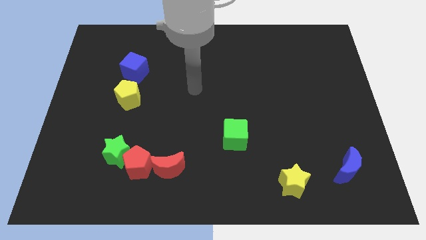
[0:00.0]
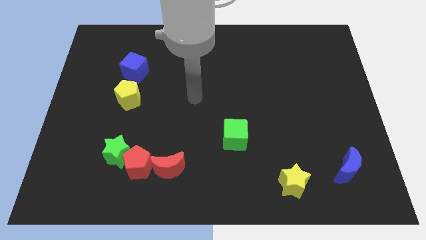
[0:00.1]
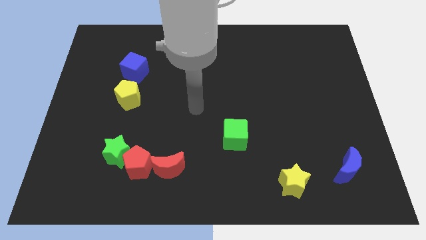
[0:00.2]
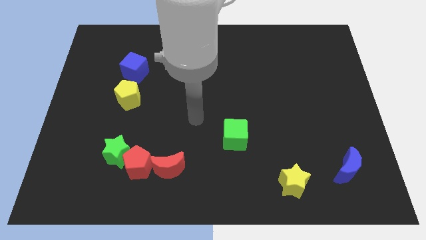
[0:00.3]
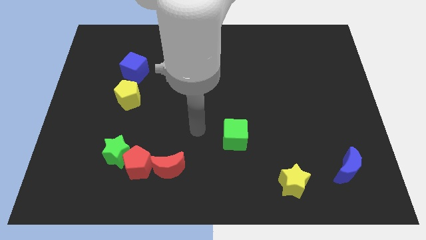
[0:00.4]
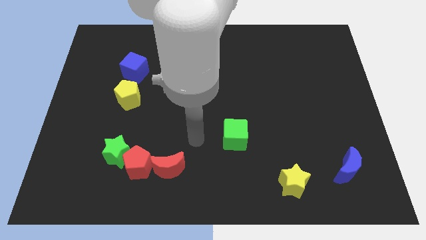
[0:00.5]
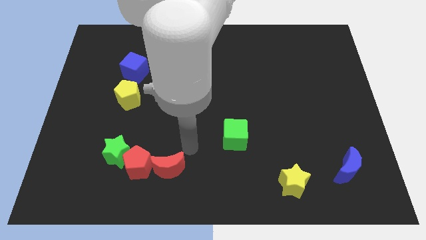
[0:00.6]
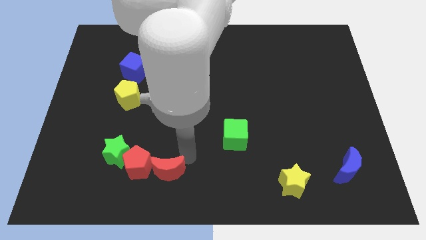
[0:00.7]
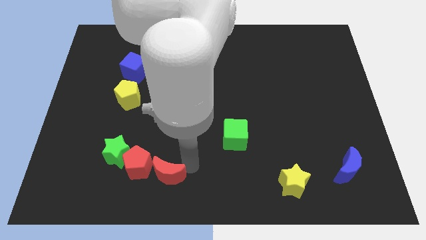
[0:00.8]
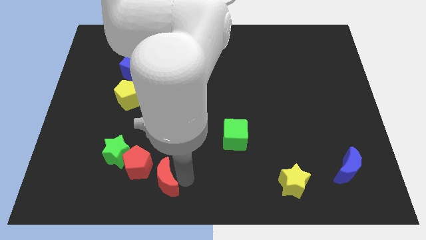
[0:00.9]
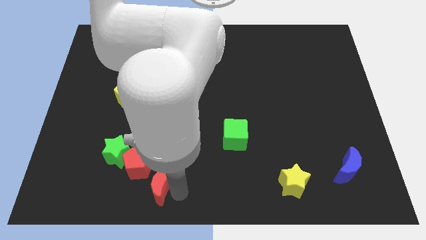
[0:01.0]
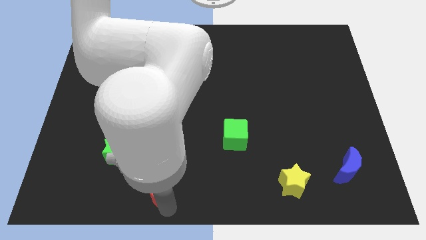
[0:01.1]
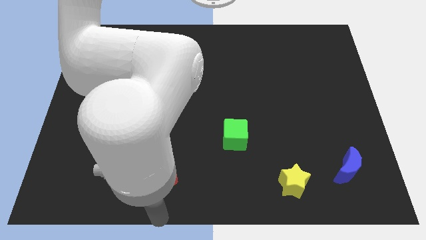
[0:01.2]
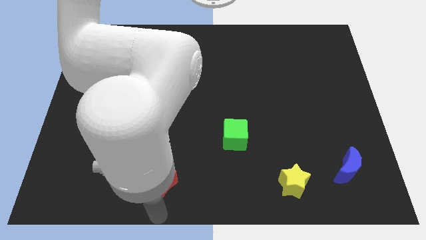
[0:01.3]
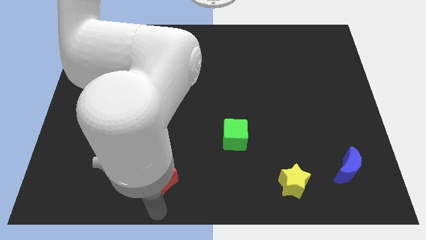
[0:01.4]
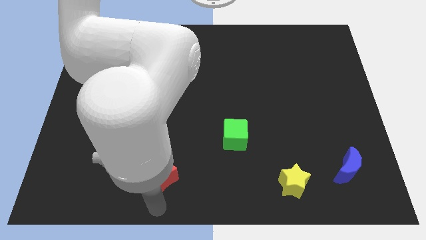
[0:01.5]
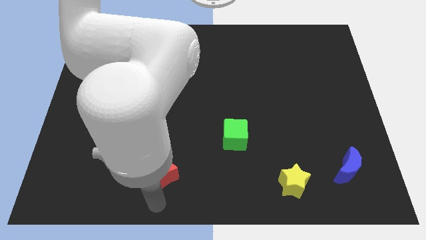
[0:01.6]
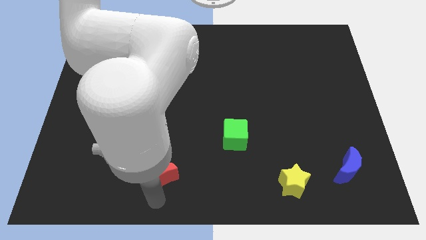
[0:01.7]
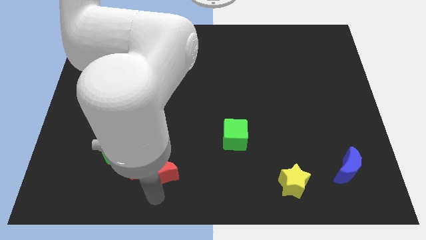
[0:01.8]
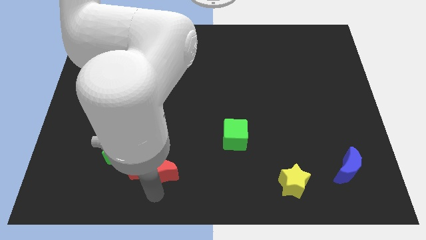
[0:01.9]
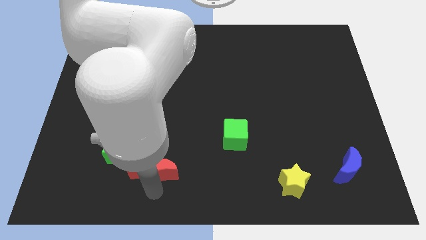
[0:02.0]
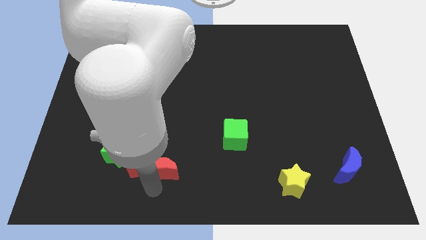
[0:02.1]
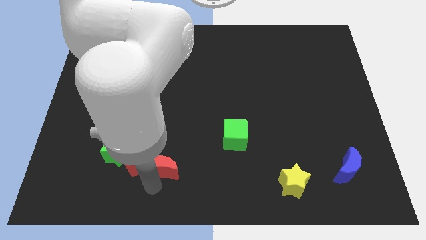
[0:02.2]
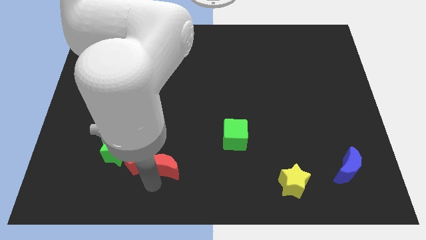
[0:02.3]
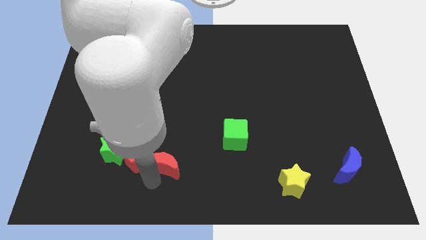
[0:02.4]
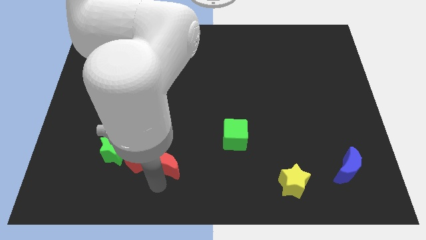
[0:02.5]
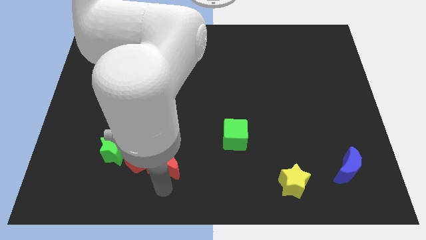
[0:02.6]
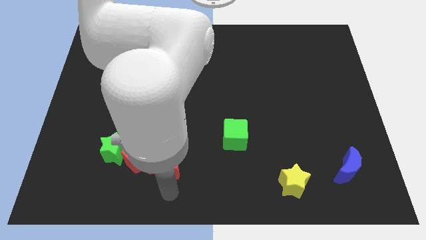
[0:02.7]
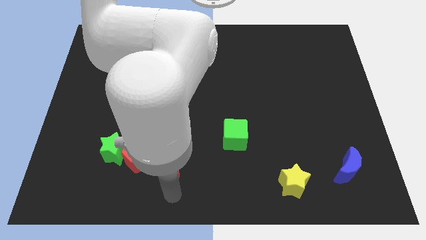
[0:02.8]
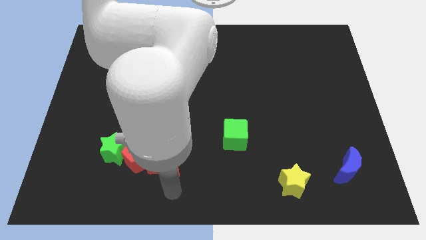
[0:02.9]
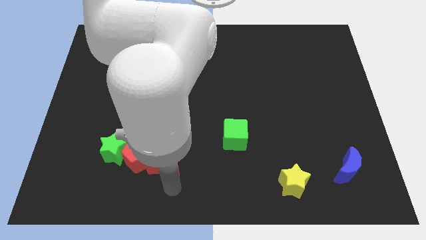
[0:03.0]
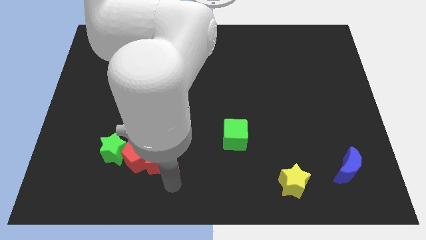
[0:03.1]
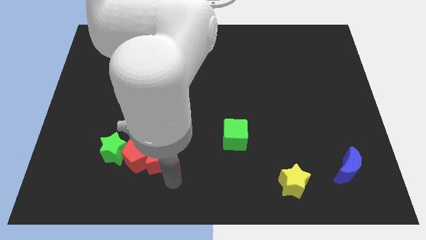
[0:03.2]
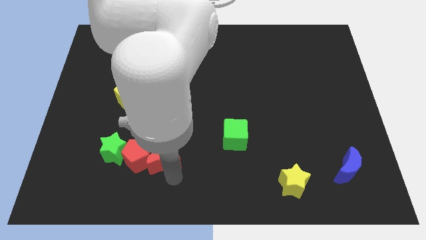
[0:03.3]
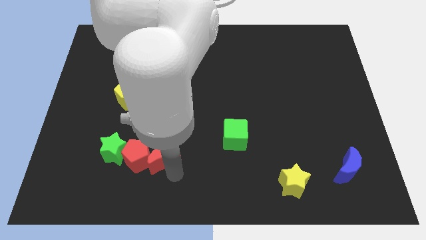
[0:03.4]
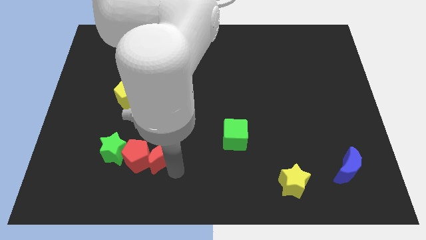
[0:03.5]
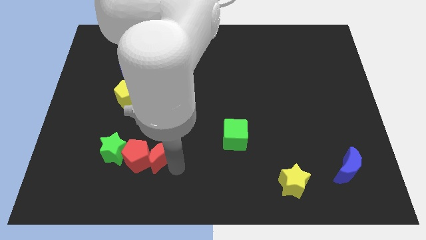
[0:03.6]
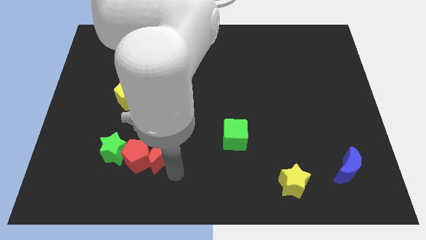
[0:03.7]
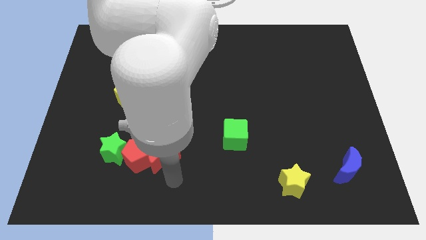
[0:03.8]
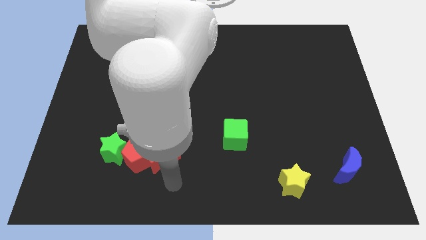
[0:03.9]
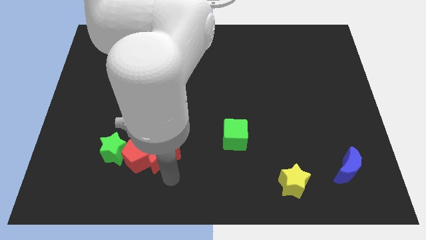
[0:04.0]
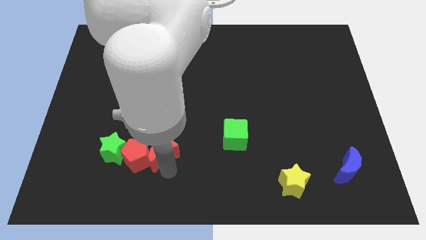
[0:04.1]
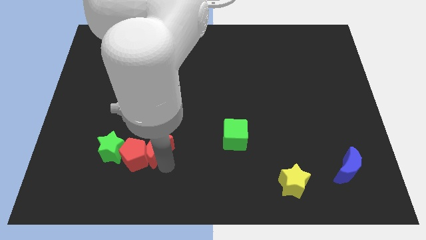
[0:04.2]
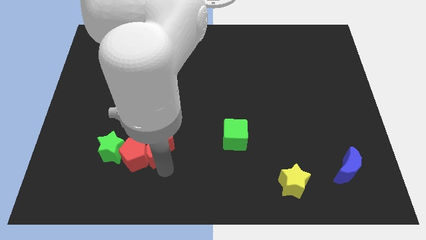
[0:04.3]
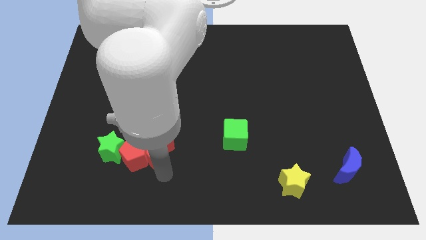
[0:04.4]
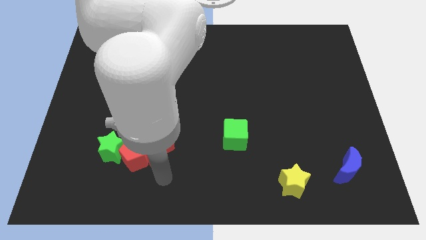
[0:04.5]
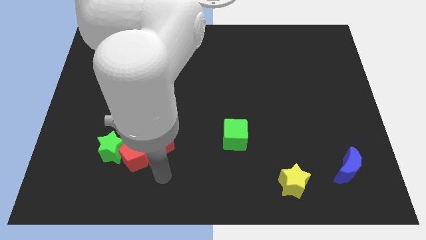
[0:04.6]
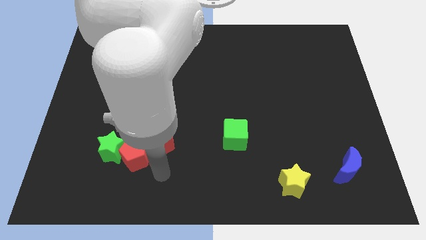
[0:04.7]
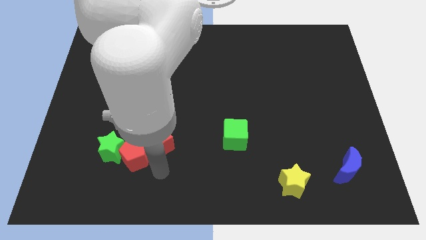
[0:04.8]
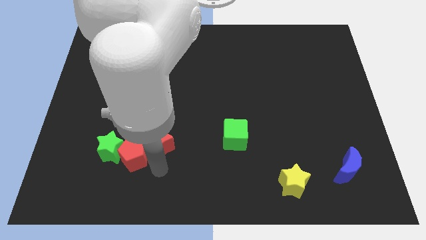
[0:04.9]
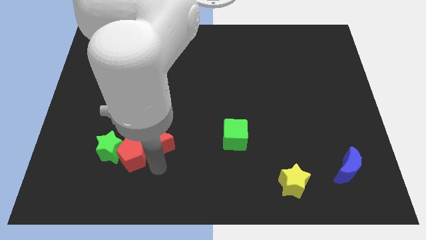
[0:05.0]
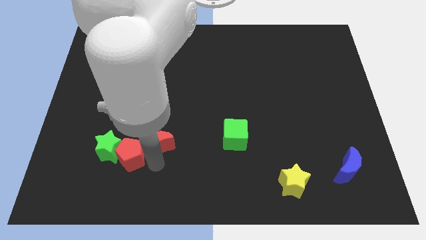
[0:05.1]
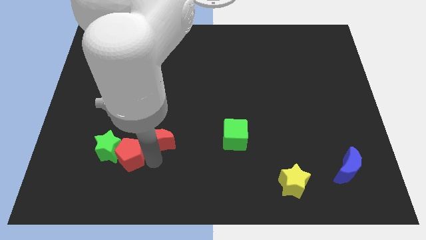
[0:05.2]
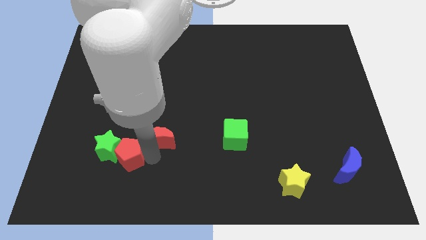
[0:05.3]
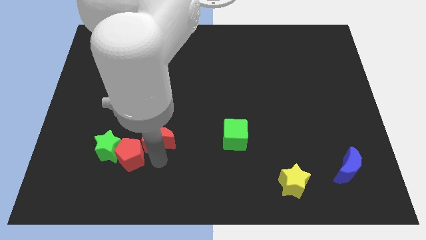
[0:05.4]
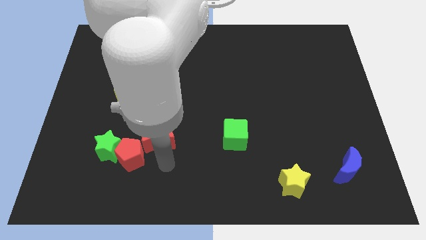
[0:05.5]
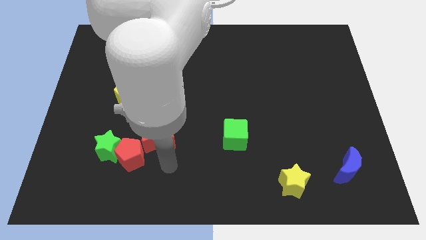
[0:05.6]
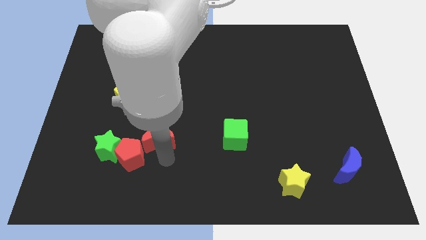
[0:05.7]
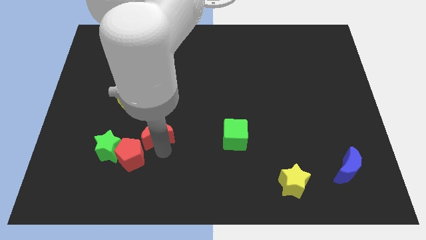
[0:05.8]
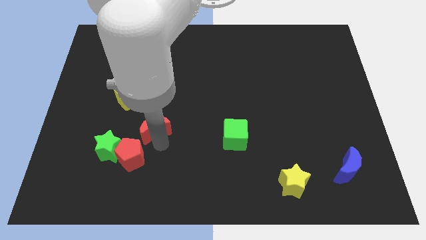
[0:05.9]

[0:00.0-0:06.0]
push the red moon to the bottom right of the yellow pentagon

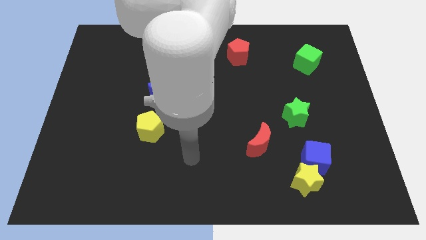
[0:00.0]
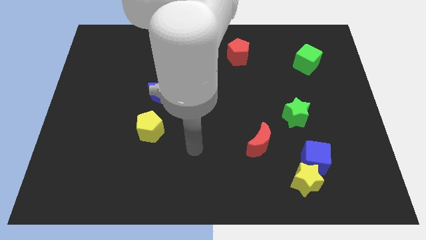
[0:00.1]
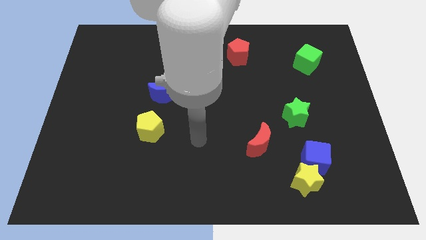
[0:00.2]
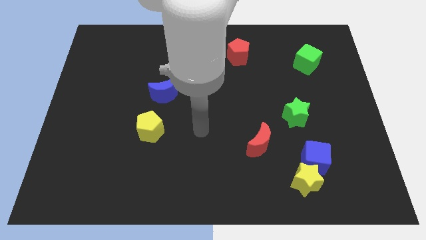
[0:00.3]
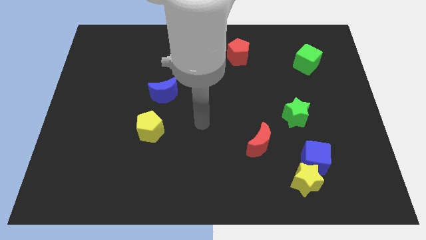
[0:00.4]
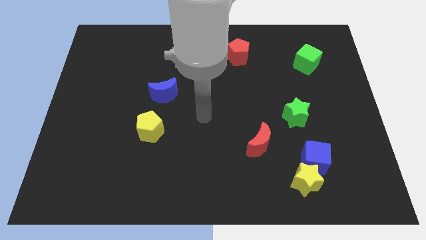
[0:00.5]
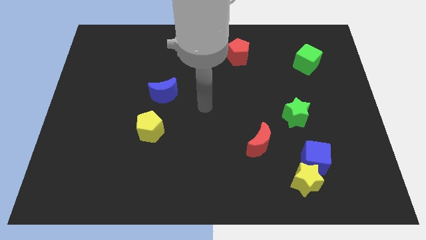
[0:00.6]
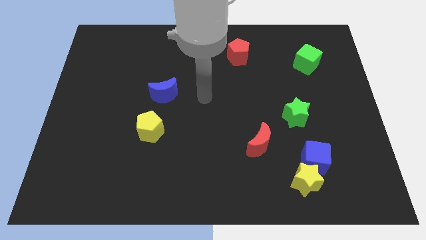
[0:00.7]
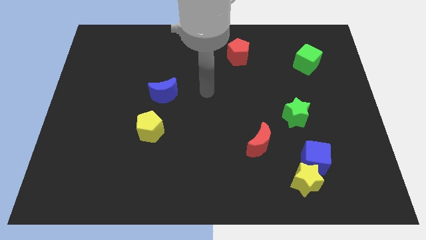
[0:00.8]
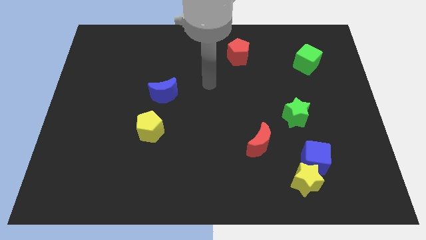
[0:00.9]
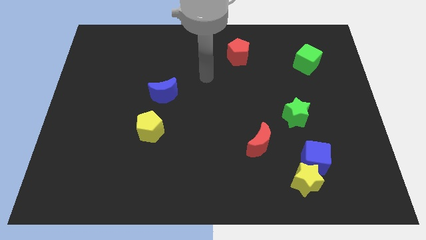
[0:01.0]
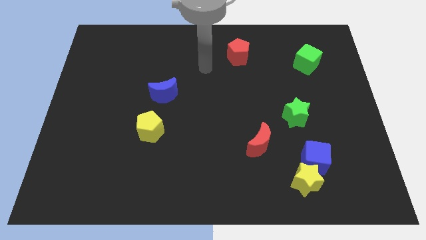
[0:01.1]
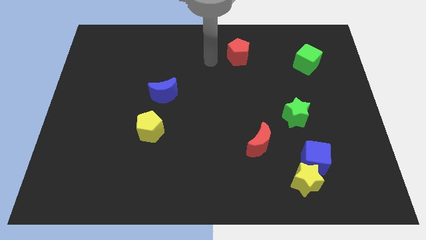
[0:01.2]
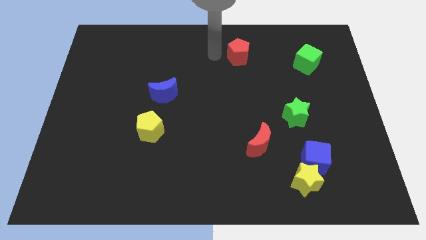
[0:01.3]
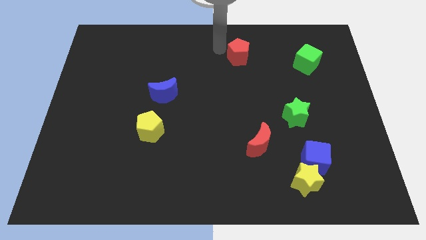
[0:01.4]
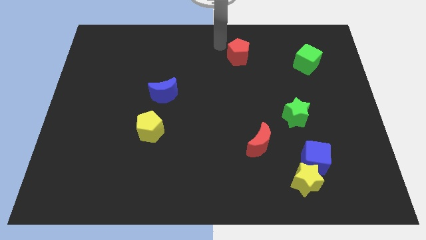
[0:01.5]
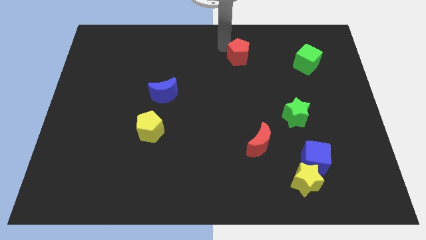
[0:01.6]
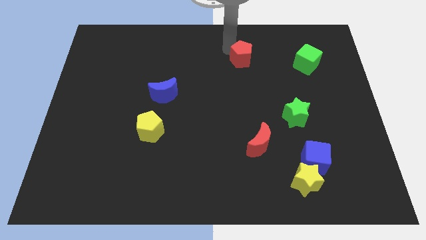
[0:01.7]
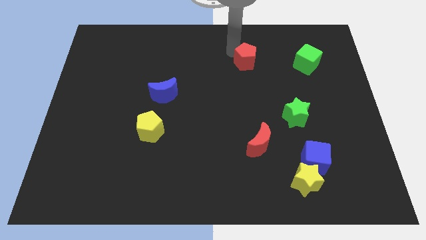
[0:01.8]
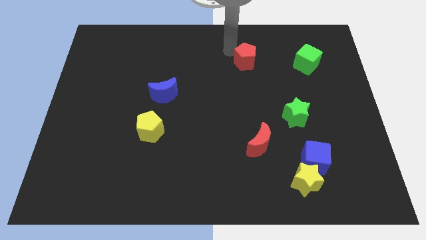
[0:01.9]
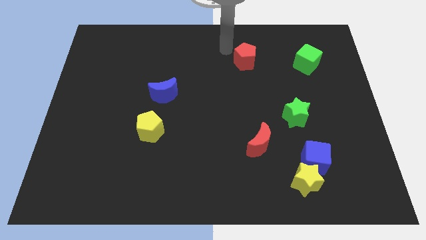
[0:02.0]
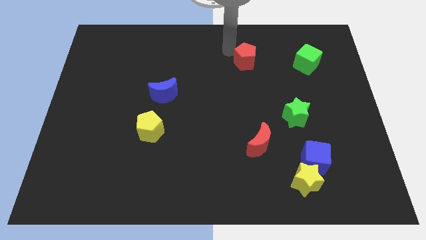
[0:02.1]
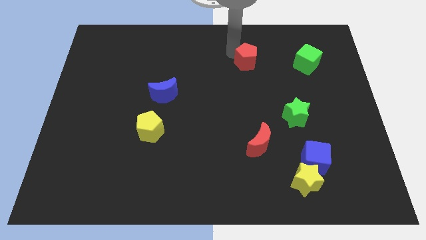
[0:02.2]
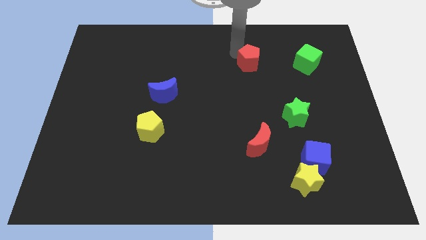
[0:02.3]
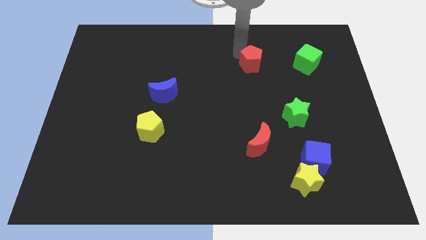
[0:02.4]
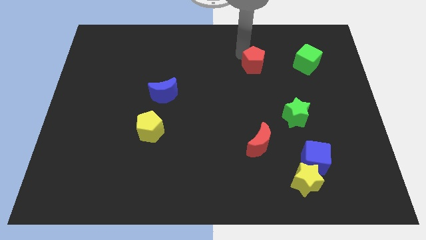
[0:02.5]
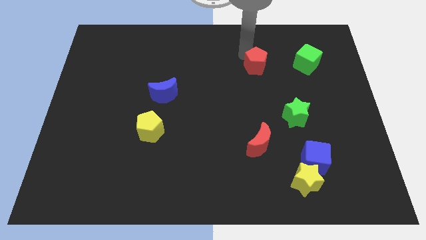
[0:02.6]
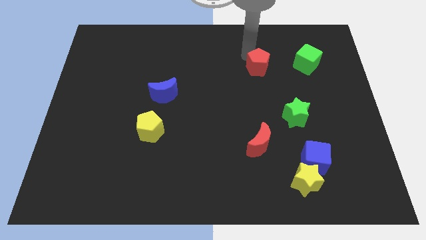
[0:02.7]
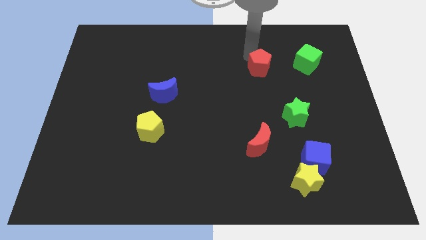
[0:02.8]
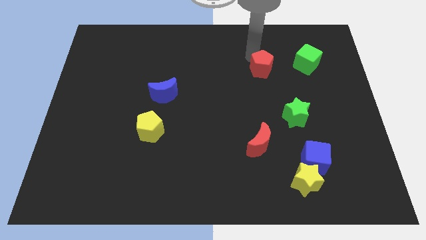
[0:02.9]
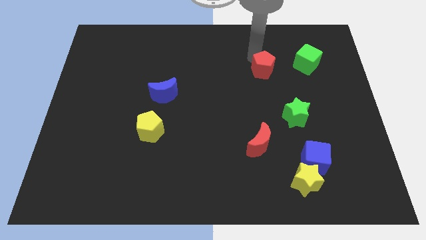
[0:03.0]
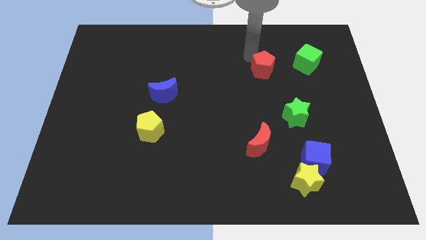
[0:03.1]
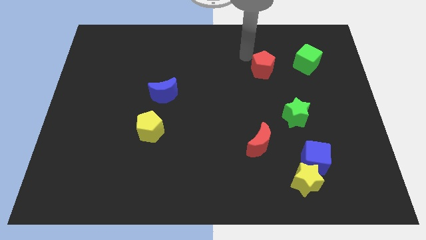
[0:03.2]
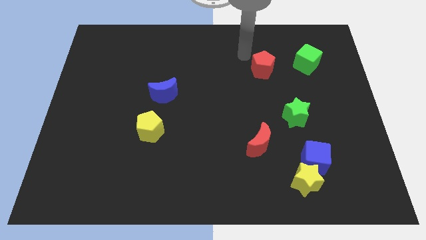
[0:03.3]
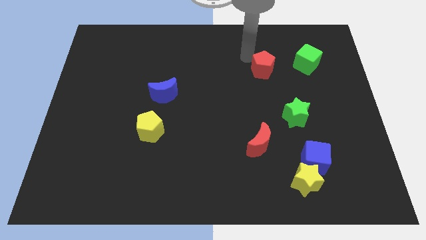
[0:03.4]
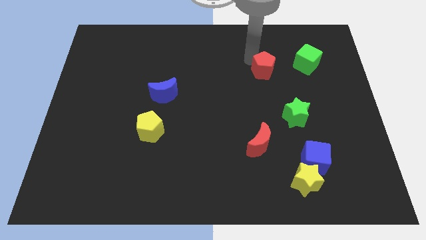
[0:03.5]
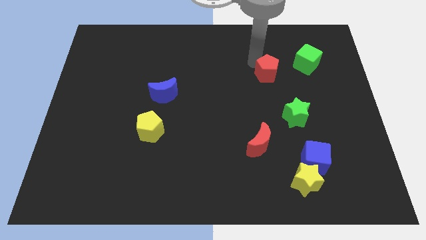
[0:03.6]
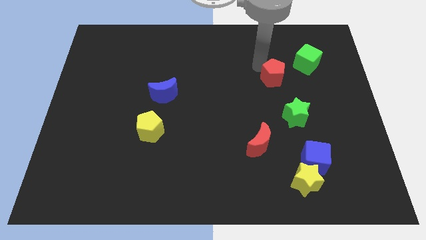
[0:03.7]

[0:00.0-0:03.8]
slide the red pentagon above the green star
